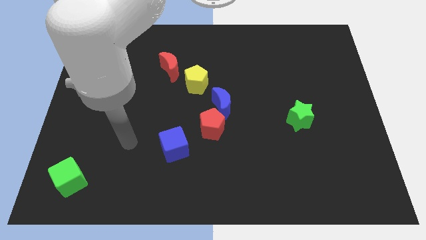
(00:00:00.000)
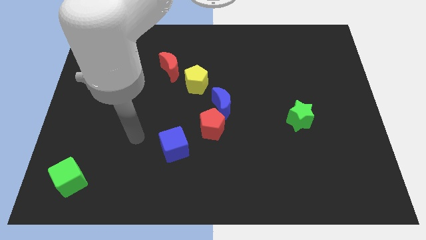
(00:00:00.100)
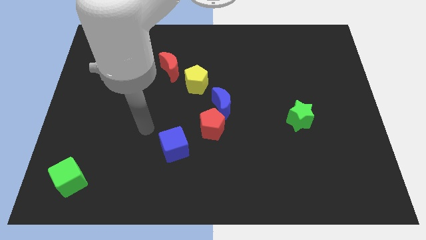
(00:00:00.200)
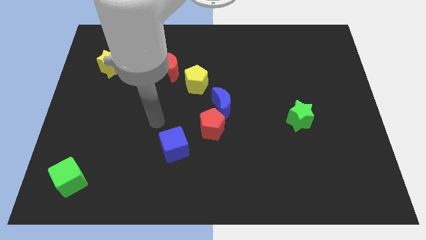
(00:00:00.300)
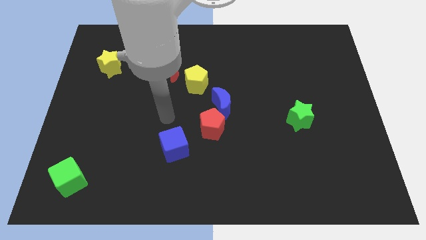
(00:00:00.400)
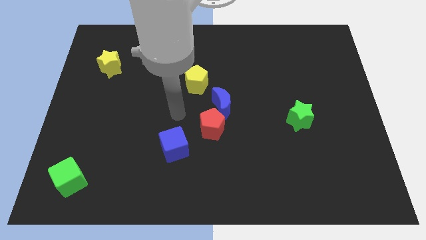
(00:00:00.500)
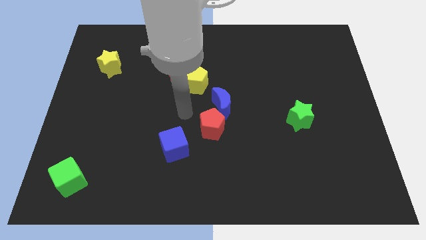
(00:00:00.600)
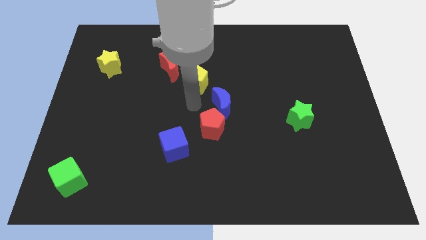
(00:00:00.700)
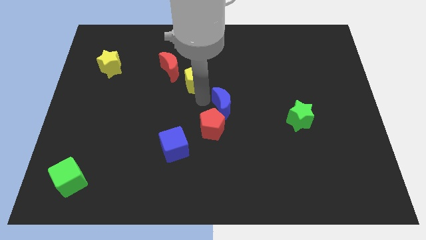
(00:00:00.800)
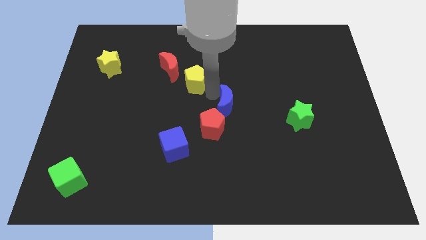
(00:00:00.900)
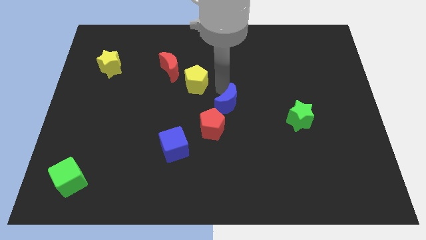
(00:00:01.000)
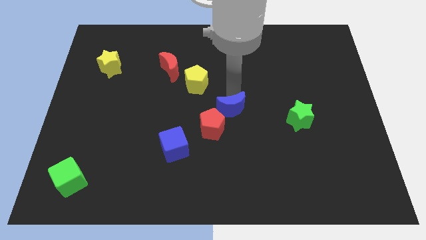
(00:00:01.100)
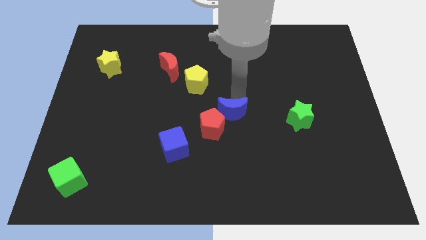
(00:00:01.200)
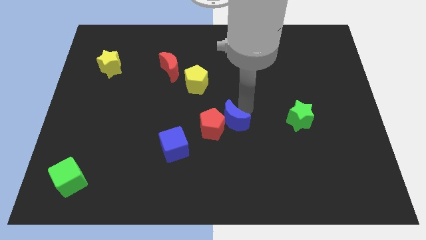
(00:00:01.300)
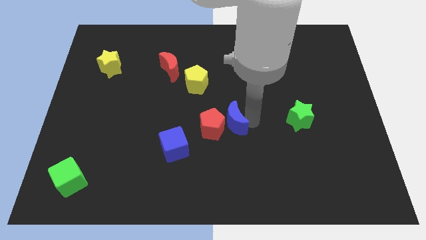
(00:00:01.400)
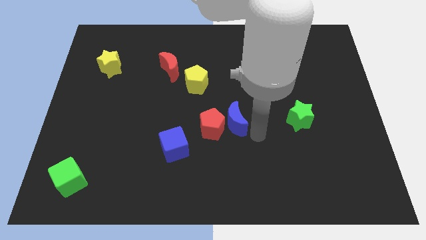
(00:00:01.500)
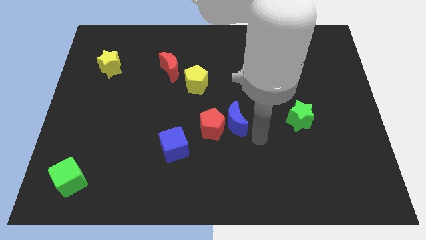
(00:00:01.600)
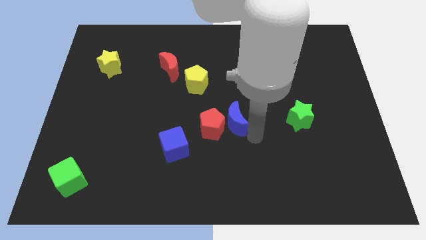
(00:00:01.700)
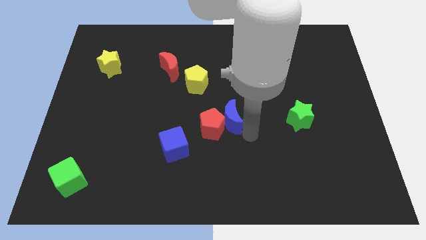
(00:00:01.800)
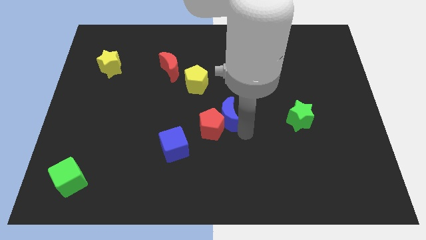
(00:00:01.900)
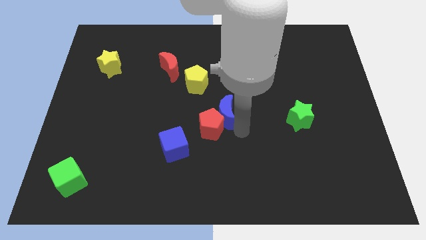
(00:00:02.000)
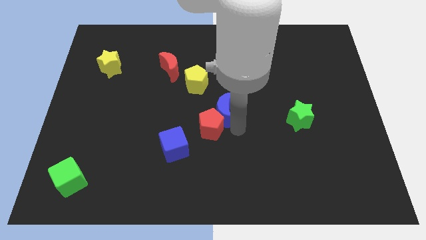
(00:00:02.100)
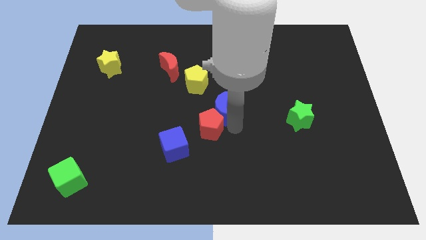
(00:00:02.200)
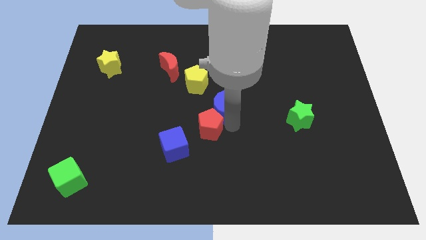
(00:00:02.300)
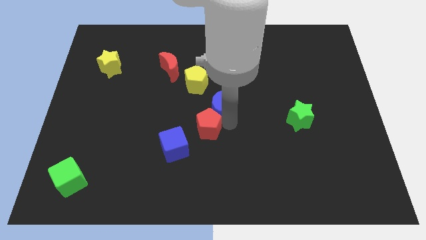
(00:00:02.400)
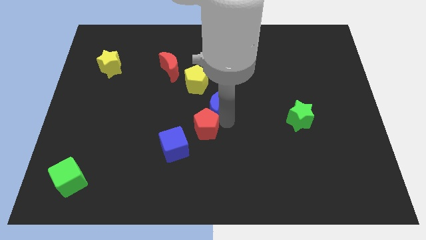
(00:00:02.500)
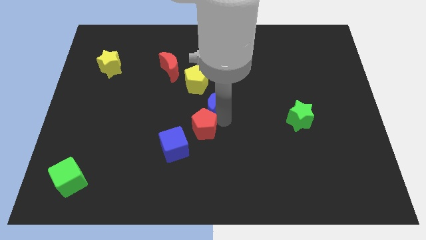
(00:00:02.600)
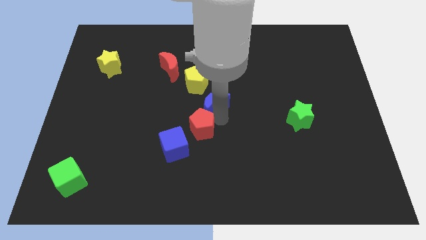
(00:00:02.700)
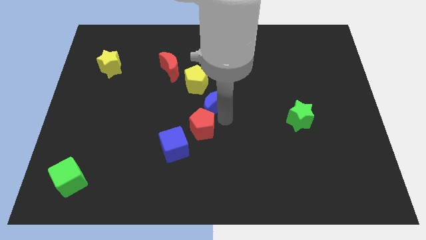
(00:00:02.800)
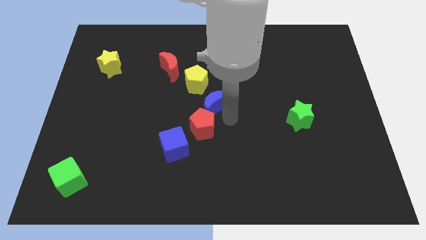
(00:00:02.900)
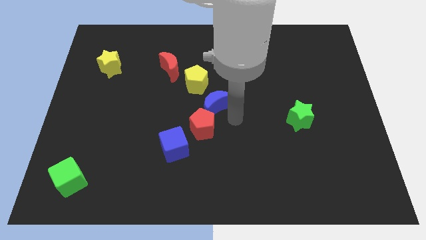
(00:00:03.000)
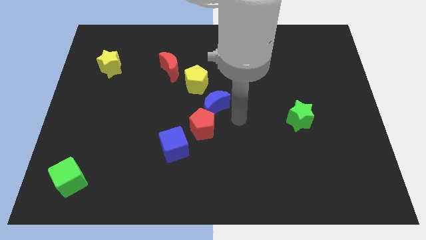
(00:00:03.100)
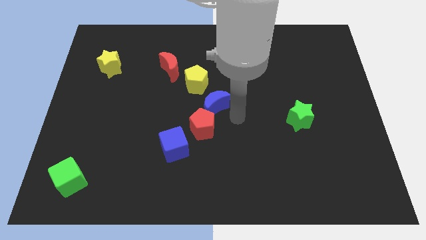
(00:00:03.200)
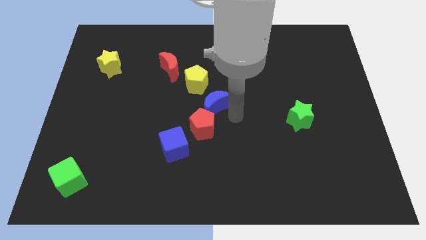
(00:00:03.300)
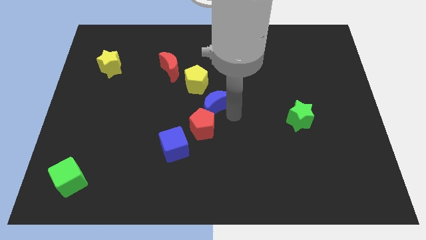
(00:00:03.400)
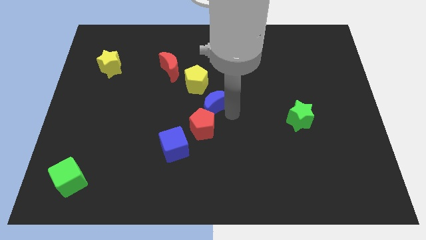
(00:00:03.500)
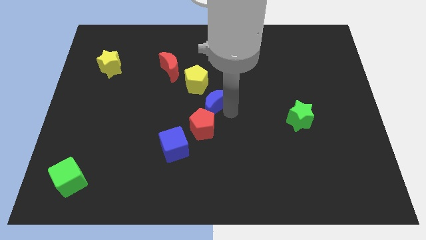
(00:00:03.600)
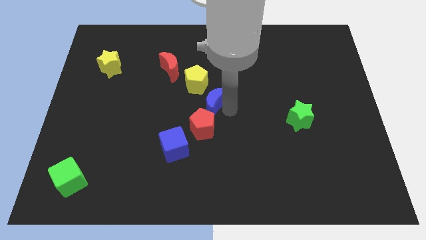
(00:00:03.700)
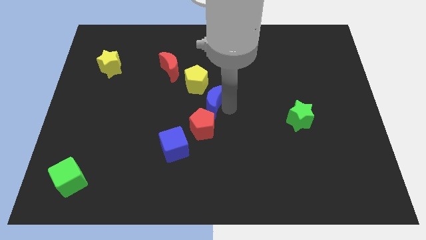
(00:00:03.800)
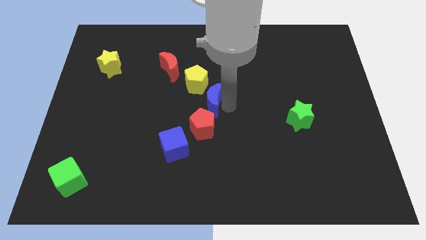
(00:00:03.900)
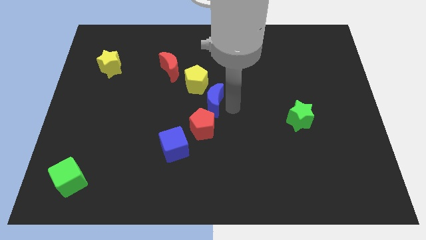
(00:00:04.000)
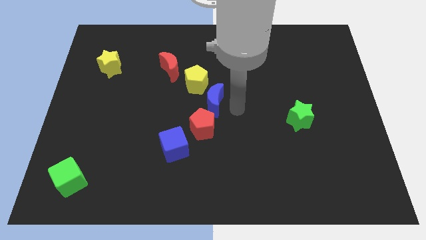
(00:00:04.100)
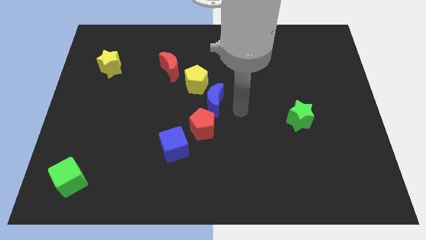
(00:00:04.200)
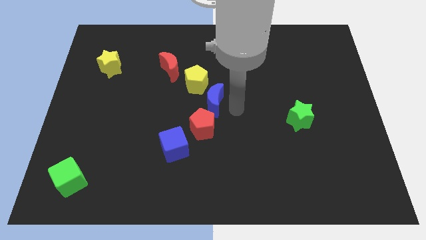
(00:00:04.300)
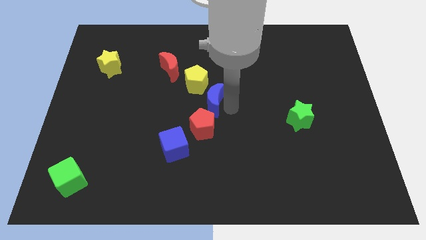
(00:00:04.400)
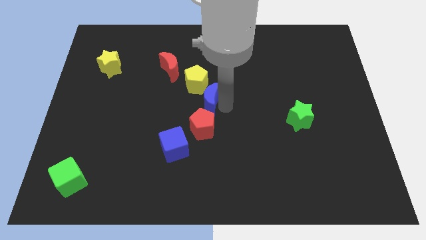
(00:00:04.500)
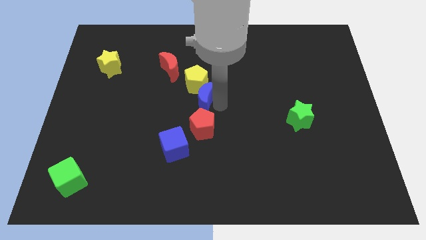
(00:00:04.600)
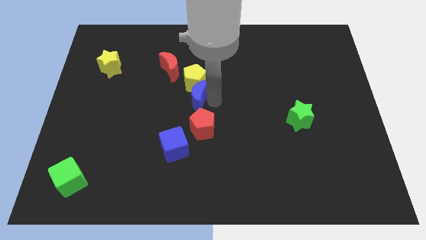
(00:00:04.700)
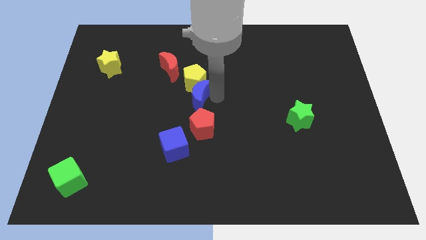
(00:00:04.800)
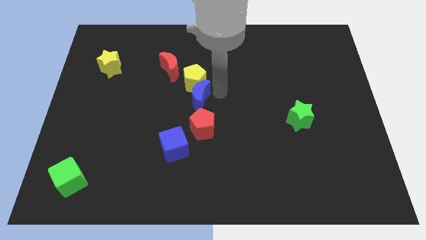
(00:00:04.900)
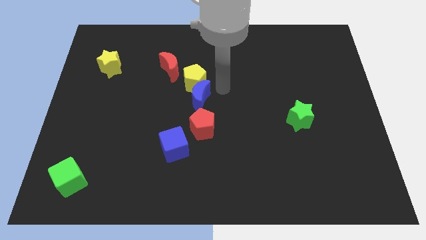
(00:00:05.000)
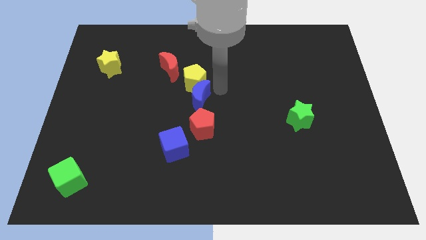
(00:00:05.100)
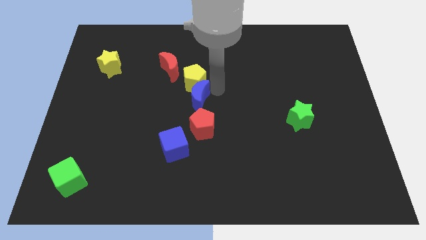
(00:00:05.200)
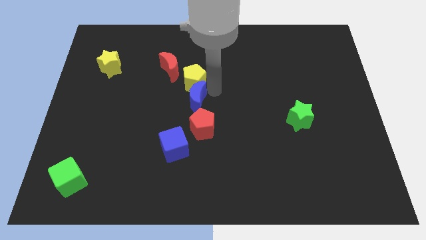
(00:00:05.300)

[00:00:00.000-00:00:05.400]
move the blue moon to the top of the blue cube
